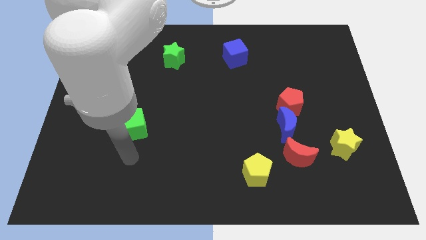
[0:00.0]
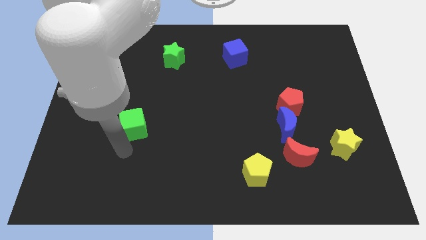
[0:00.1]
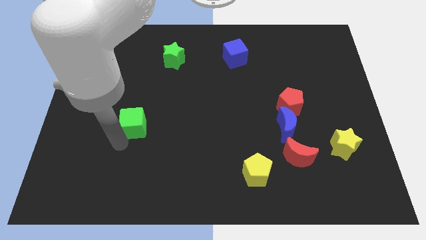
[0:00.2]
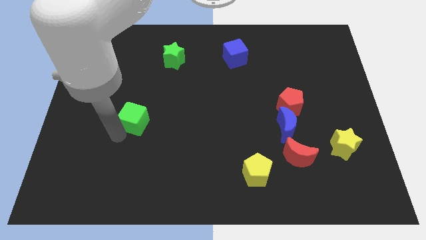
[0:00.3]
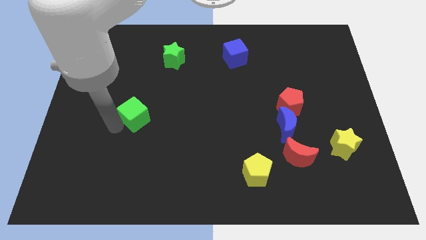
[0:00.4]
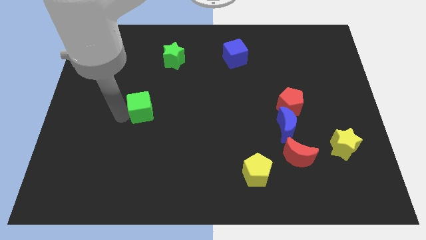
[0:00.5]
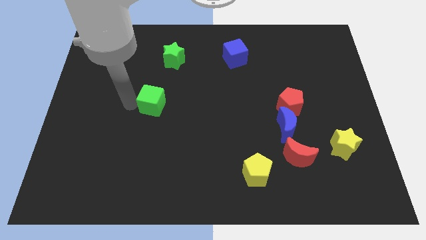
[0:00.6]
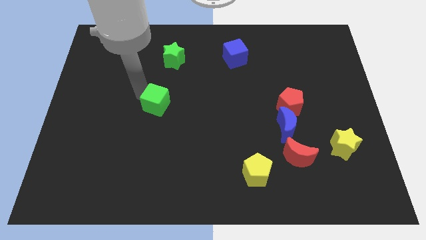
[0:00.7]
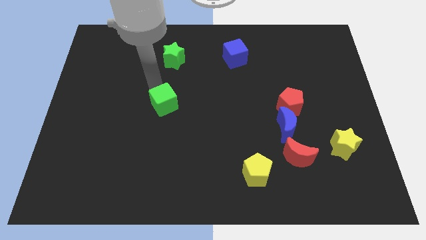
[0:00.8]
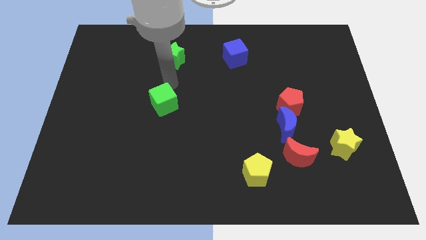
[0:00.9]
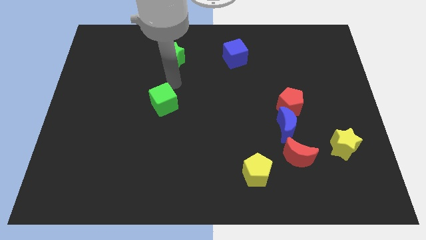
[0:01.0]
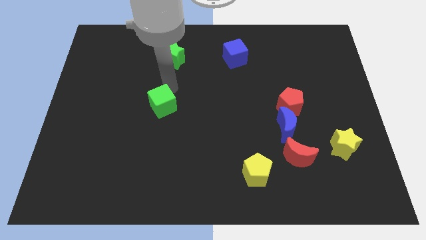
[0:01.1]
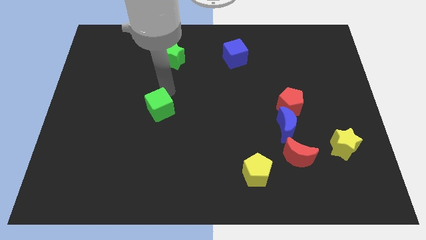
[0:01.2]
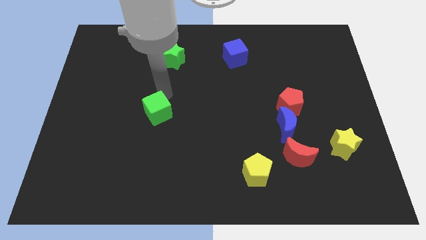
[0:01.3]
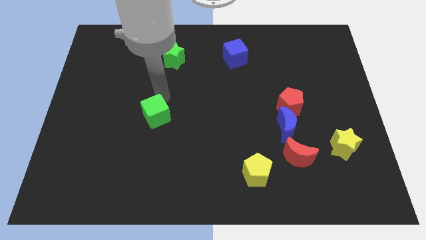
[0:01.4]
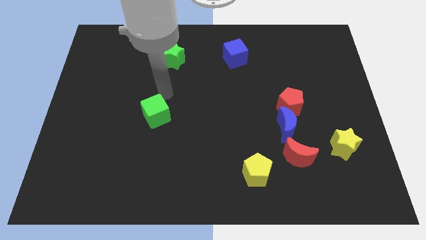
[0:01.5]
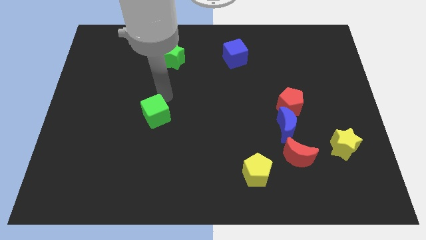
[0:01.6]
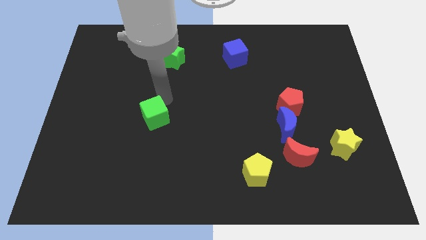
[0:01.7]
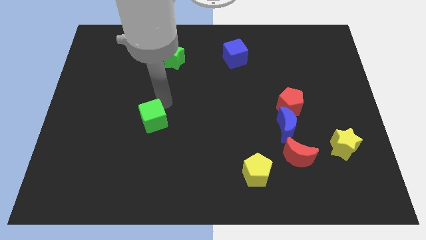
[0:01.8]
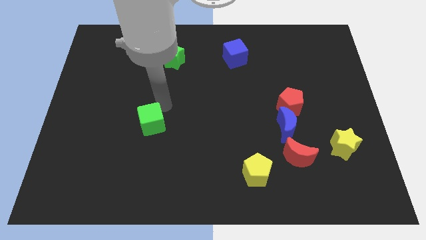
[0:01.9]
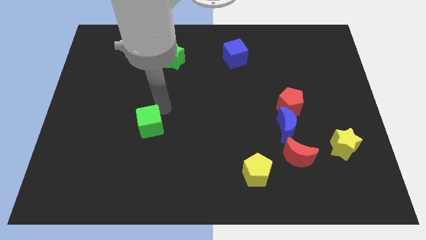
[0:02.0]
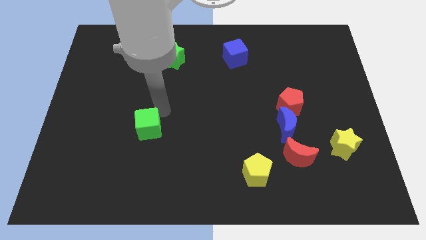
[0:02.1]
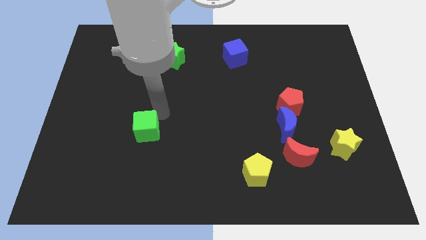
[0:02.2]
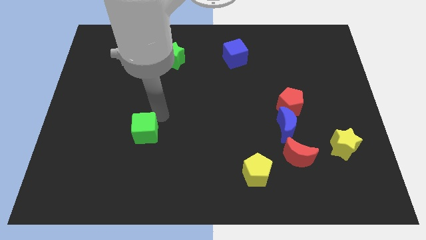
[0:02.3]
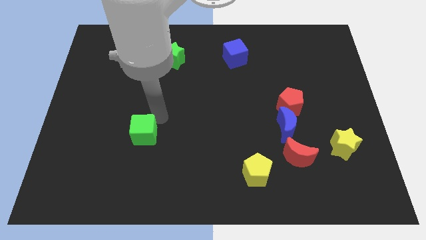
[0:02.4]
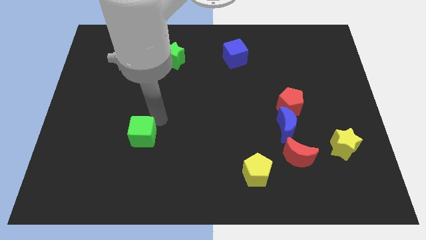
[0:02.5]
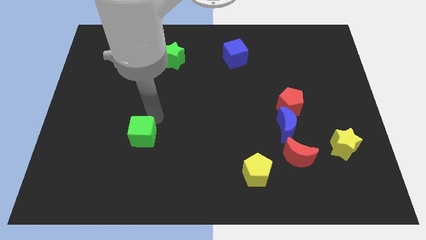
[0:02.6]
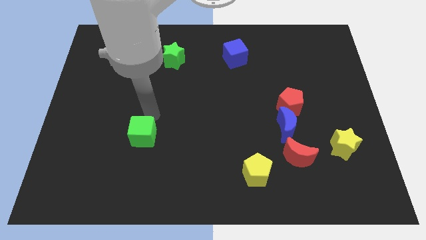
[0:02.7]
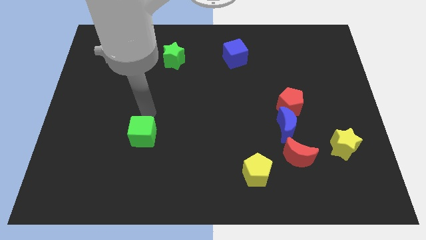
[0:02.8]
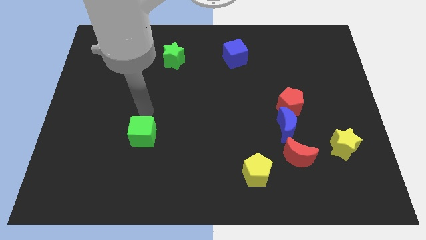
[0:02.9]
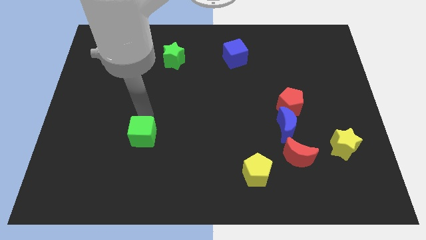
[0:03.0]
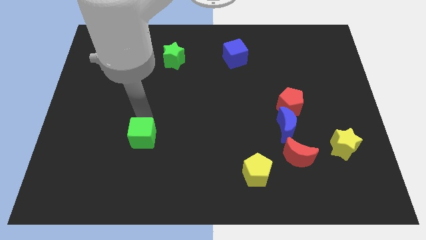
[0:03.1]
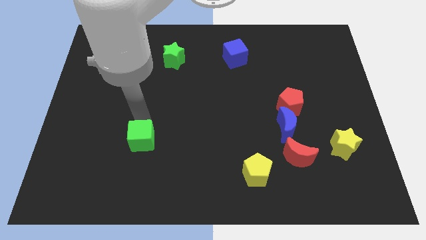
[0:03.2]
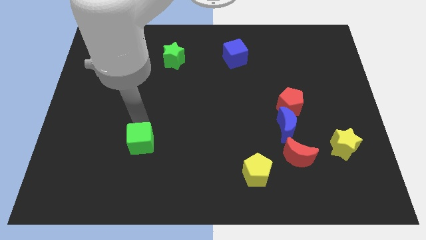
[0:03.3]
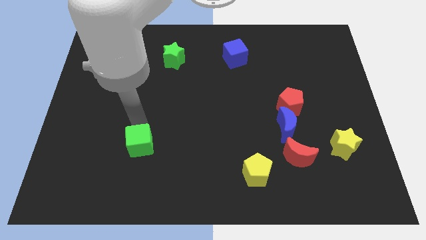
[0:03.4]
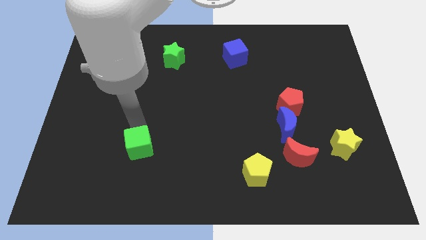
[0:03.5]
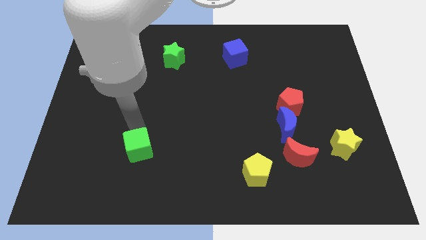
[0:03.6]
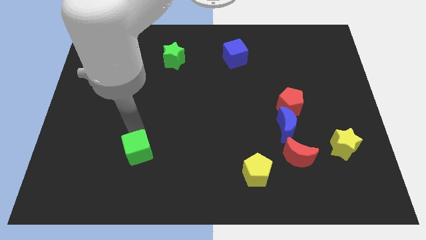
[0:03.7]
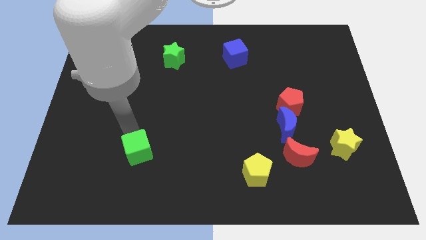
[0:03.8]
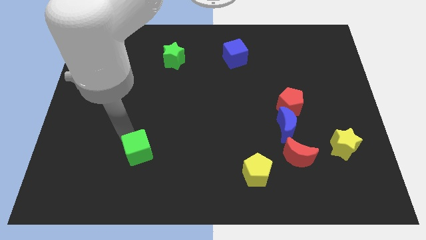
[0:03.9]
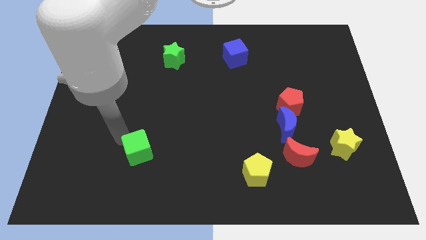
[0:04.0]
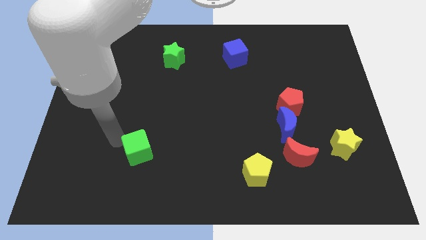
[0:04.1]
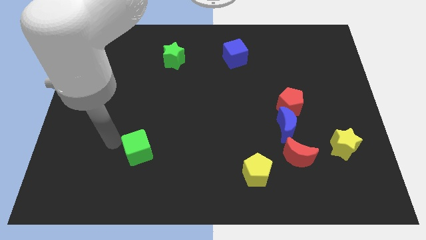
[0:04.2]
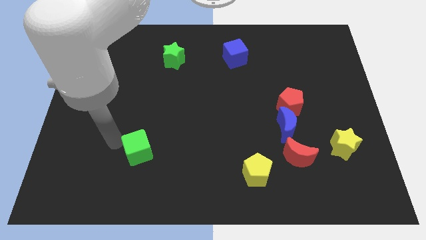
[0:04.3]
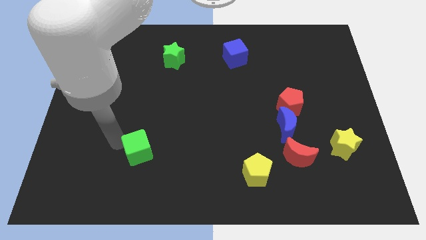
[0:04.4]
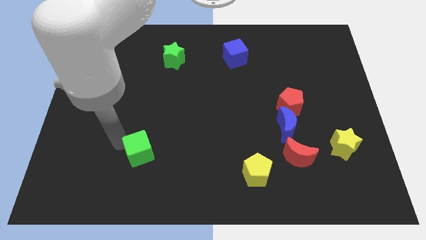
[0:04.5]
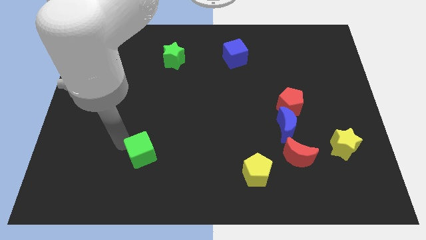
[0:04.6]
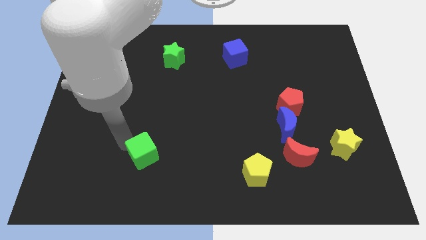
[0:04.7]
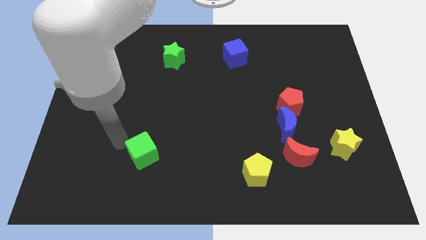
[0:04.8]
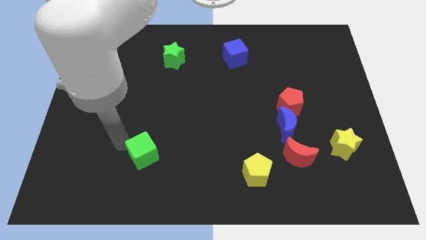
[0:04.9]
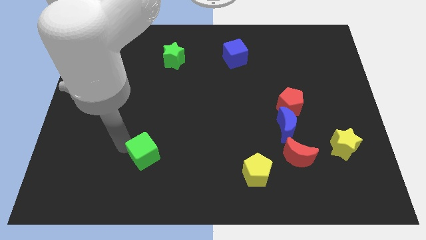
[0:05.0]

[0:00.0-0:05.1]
slide the green cube somewhat diagonally down and right

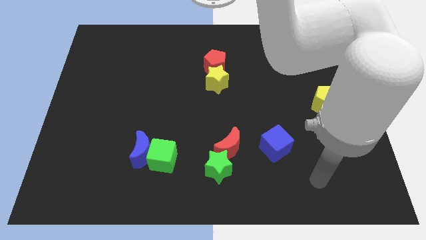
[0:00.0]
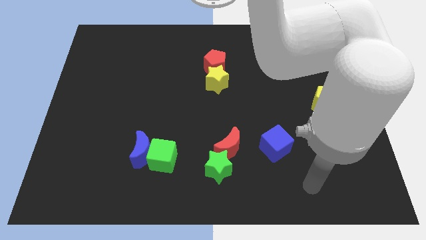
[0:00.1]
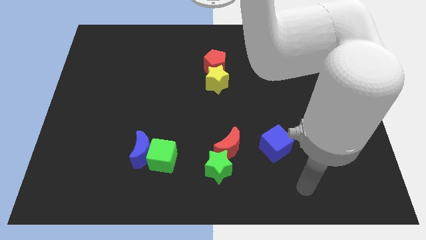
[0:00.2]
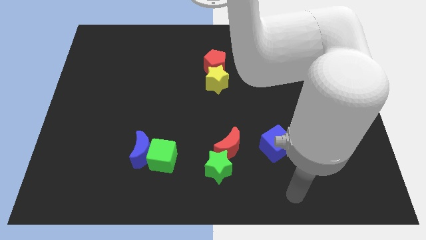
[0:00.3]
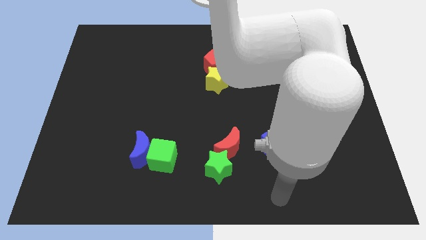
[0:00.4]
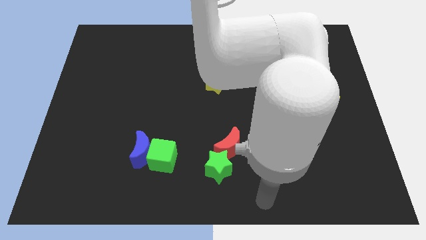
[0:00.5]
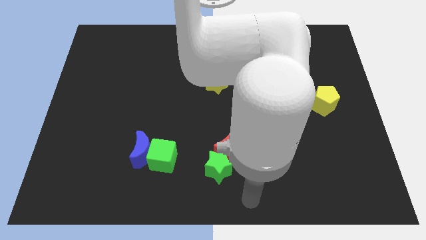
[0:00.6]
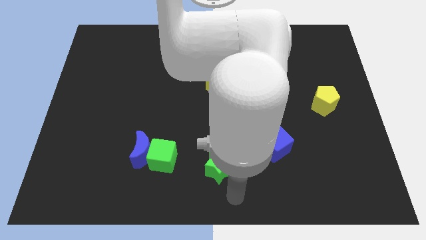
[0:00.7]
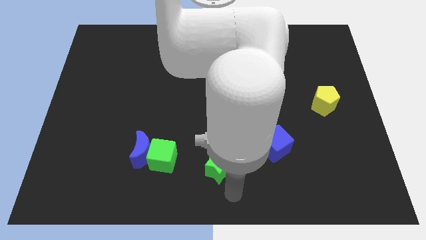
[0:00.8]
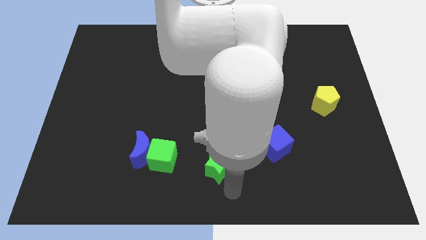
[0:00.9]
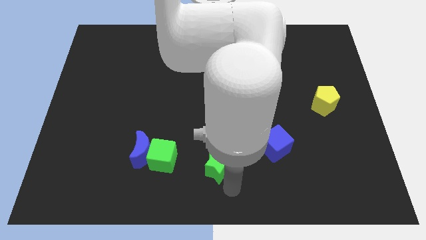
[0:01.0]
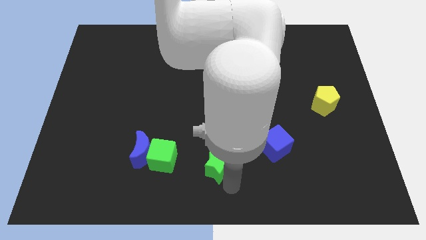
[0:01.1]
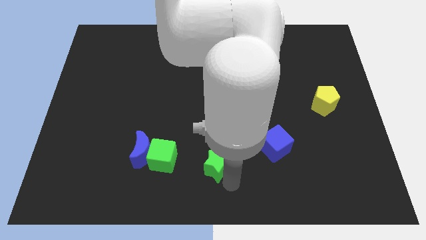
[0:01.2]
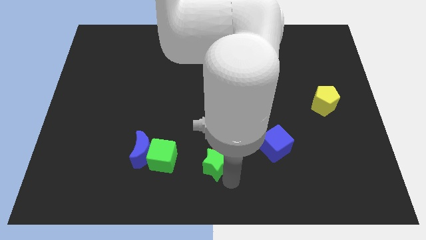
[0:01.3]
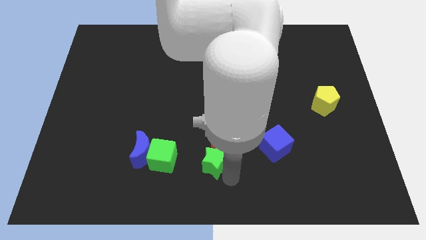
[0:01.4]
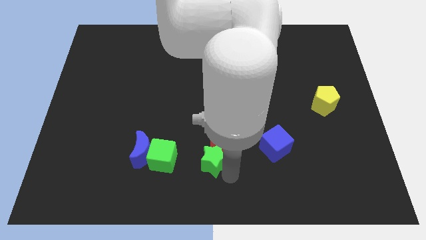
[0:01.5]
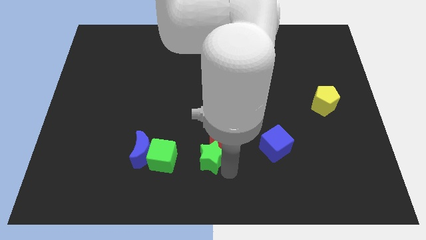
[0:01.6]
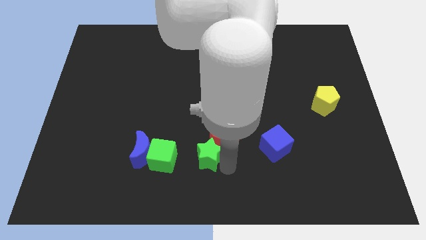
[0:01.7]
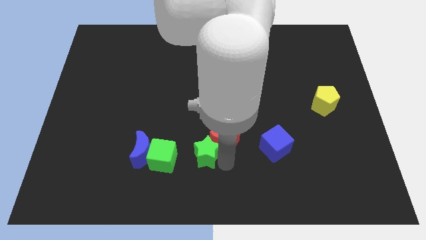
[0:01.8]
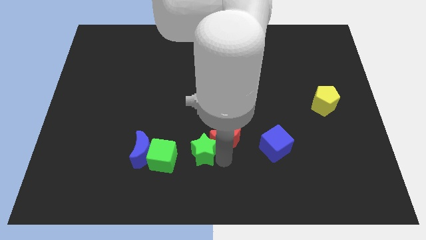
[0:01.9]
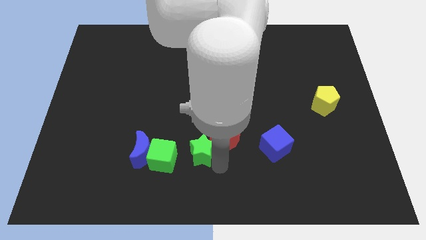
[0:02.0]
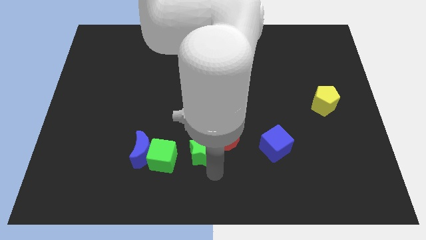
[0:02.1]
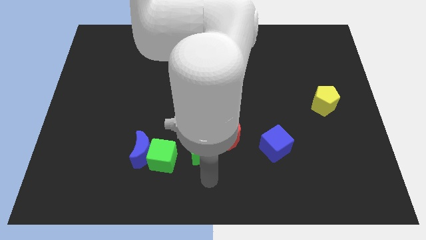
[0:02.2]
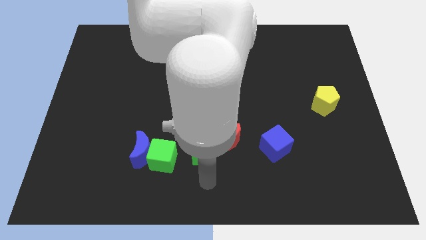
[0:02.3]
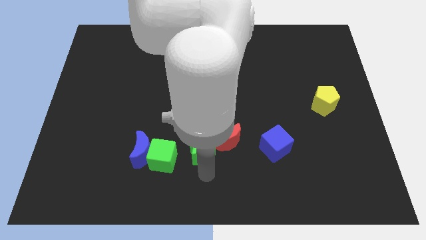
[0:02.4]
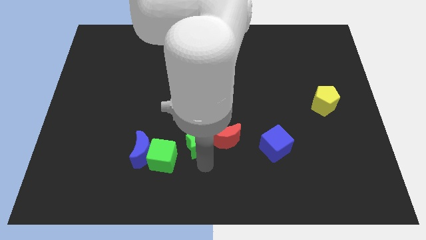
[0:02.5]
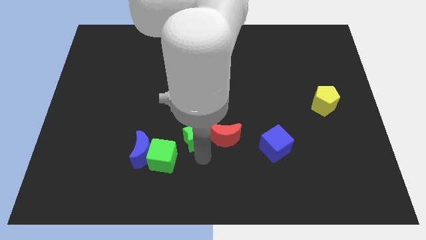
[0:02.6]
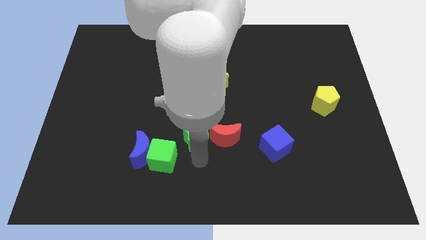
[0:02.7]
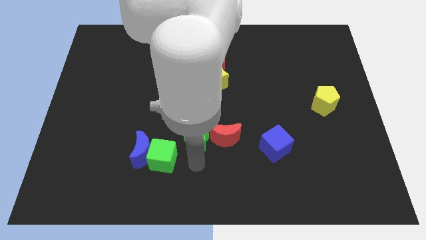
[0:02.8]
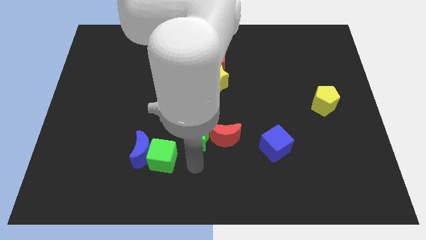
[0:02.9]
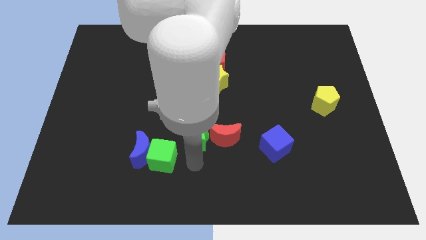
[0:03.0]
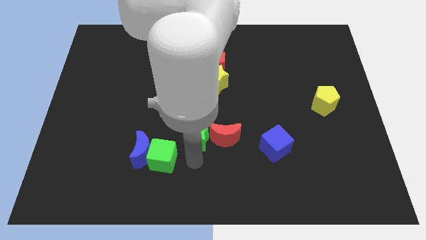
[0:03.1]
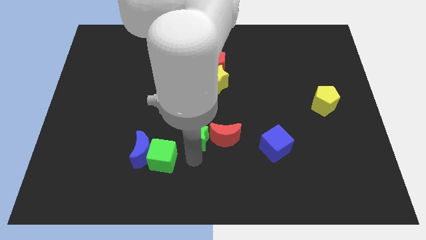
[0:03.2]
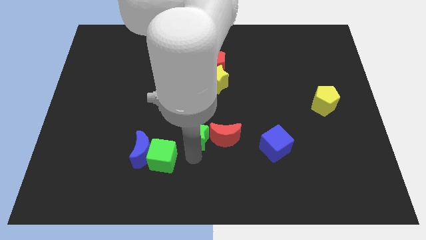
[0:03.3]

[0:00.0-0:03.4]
push the green star up slightly
